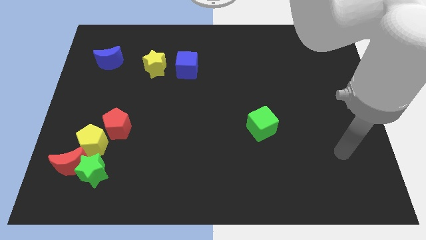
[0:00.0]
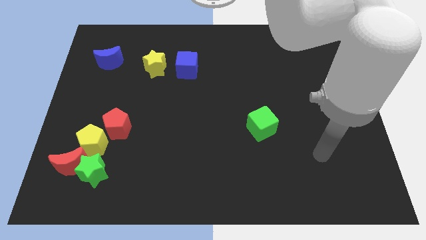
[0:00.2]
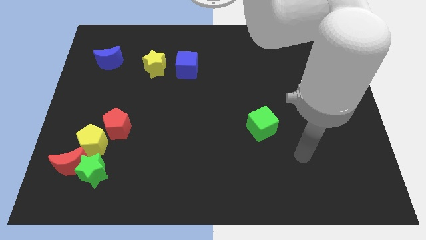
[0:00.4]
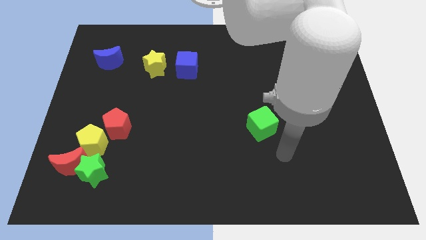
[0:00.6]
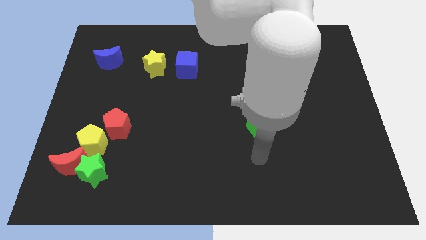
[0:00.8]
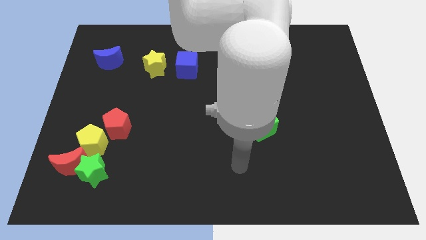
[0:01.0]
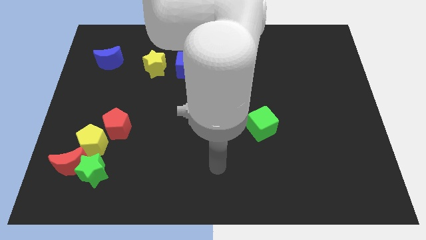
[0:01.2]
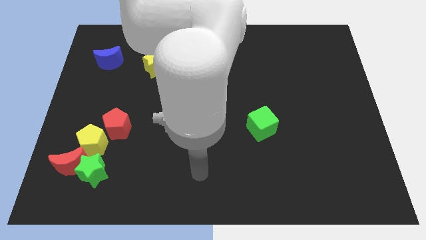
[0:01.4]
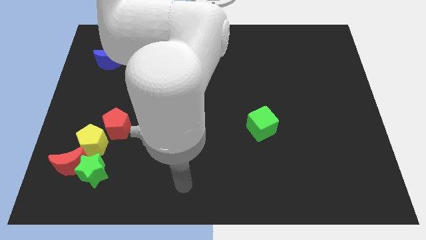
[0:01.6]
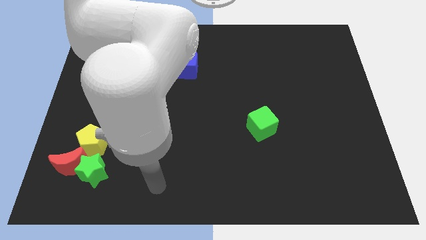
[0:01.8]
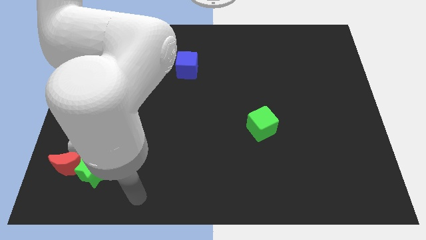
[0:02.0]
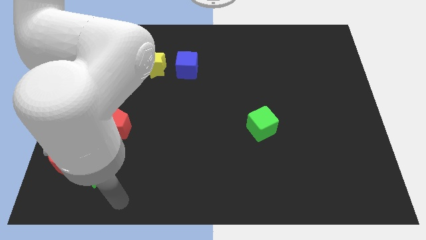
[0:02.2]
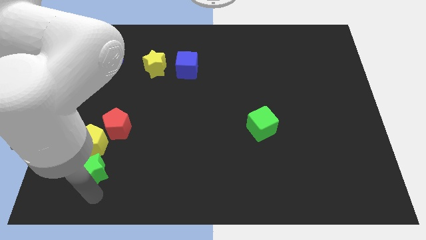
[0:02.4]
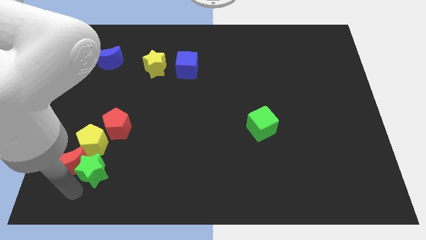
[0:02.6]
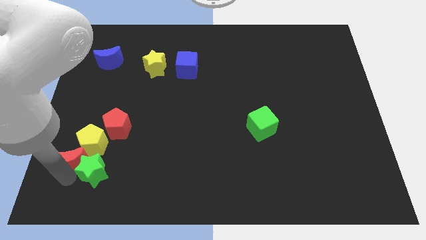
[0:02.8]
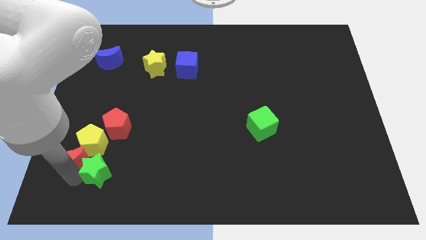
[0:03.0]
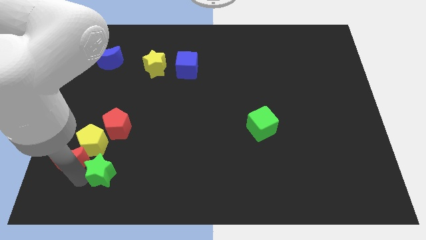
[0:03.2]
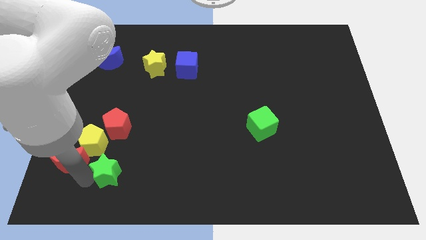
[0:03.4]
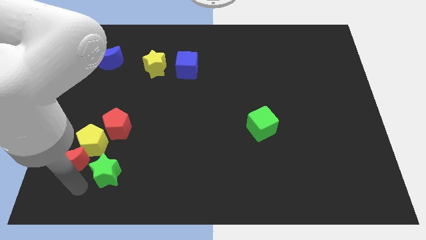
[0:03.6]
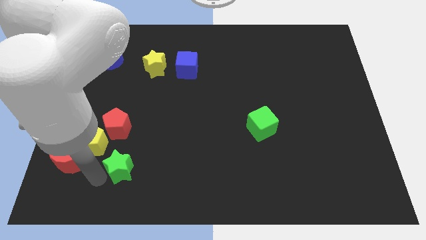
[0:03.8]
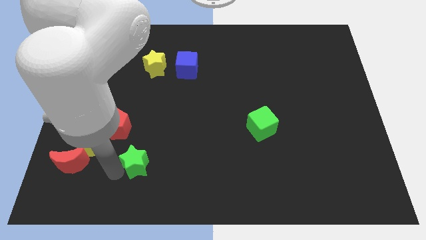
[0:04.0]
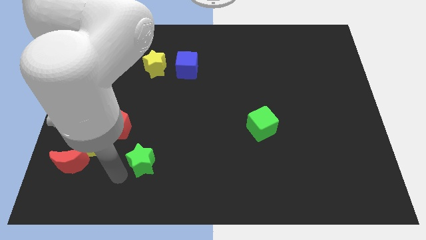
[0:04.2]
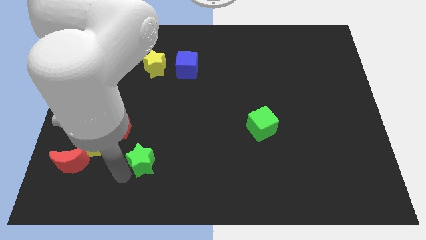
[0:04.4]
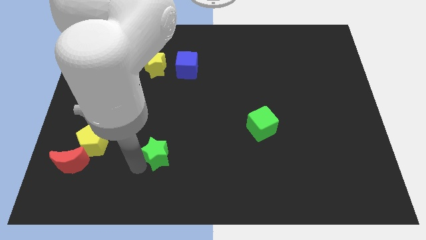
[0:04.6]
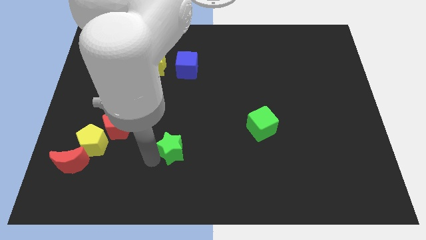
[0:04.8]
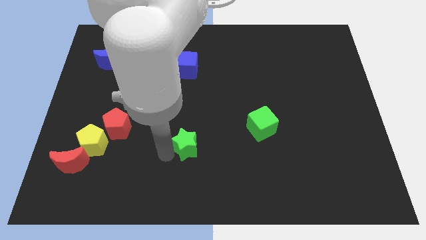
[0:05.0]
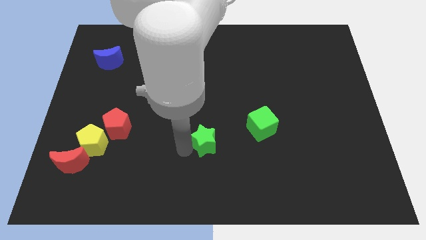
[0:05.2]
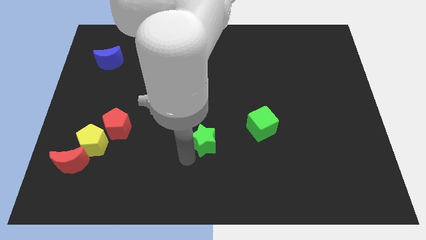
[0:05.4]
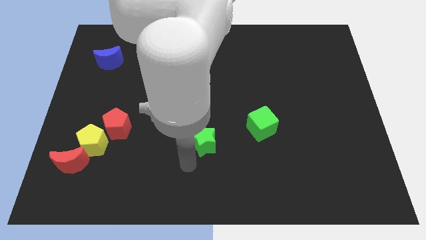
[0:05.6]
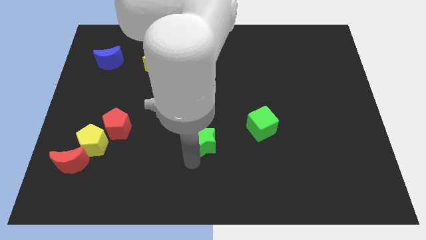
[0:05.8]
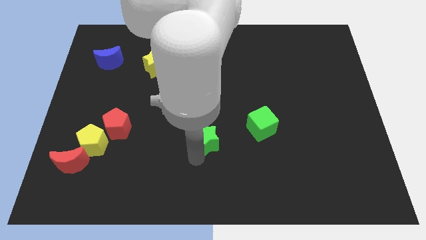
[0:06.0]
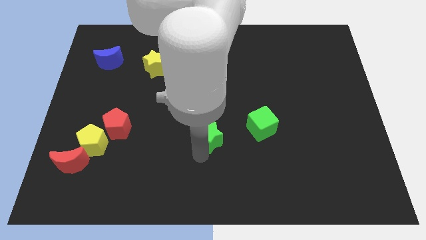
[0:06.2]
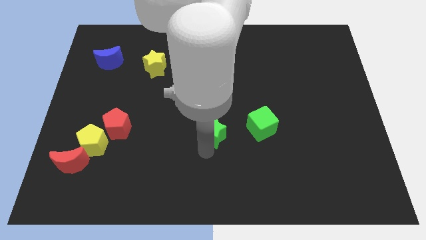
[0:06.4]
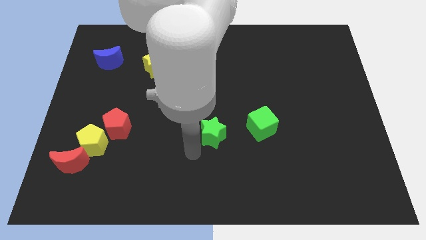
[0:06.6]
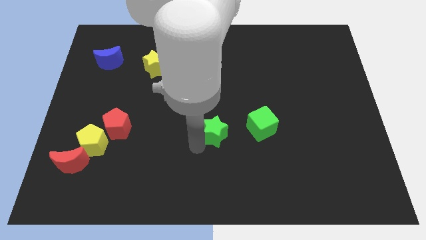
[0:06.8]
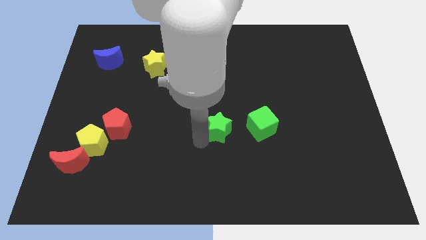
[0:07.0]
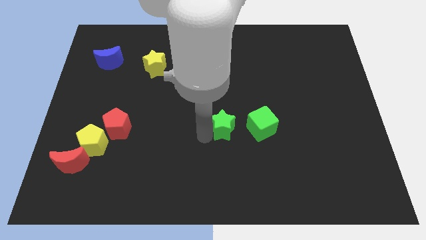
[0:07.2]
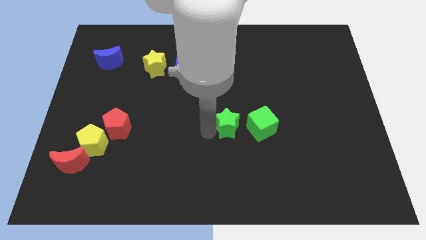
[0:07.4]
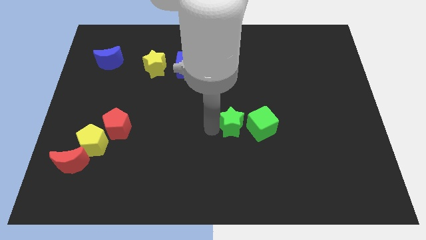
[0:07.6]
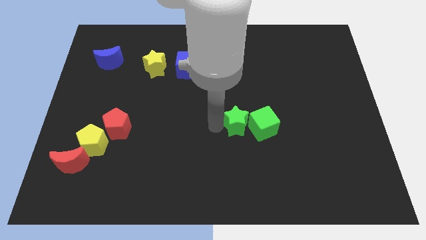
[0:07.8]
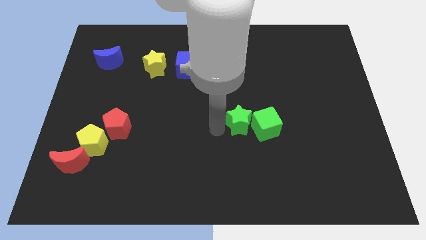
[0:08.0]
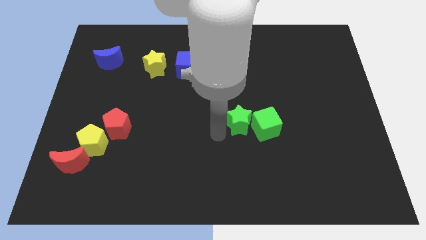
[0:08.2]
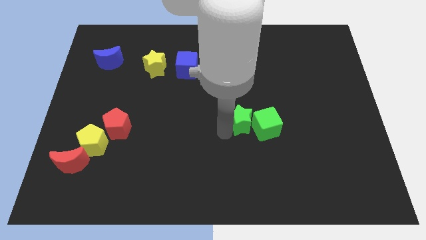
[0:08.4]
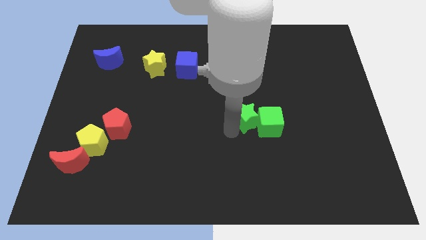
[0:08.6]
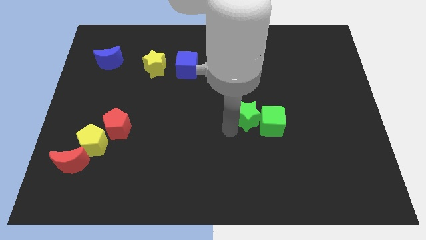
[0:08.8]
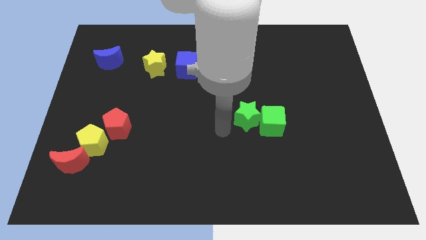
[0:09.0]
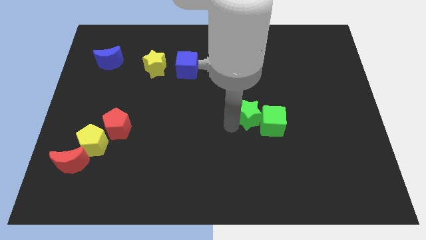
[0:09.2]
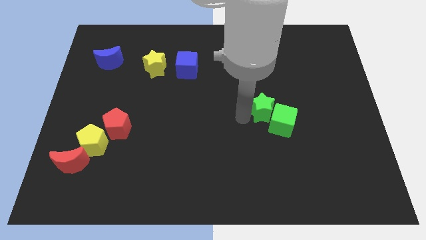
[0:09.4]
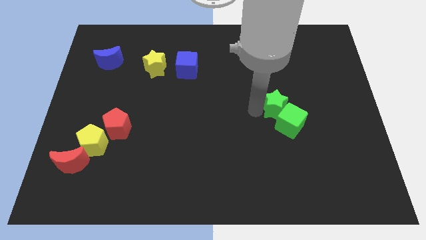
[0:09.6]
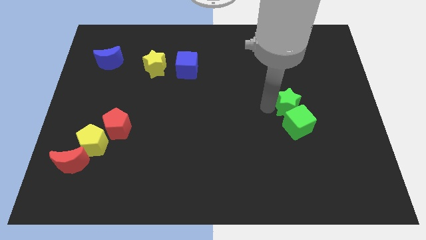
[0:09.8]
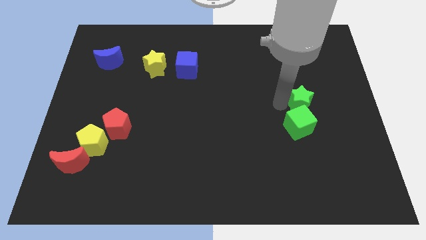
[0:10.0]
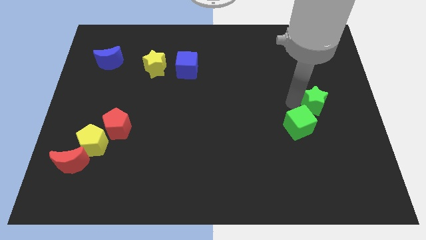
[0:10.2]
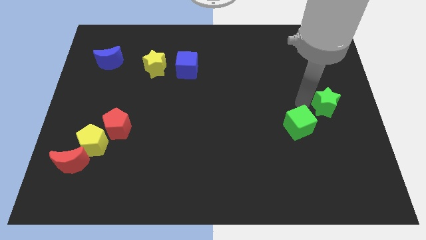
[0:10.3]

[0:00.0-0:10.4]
put the green star to the right side

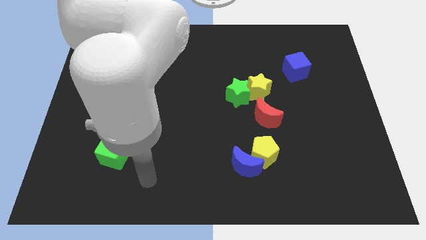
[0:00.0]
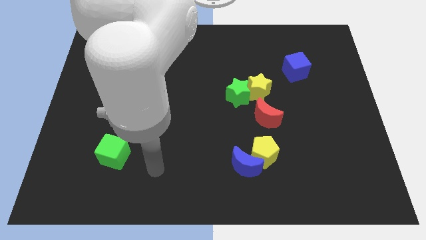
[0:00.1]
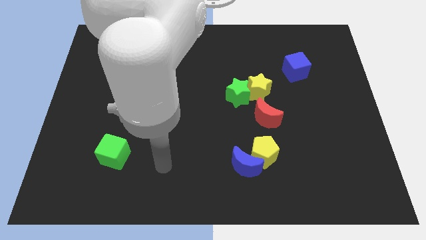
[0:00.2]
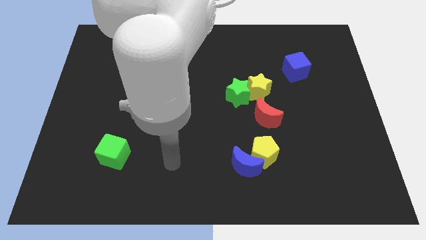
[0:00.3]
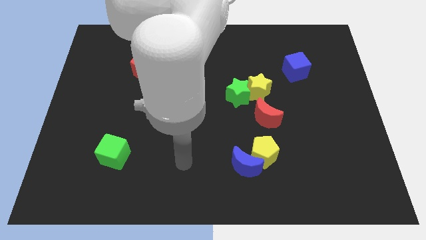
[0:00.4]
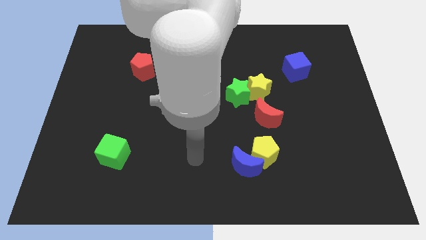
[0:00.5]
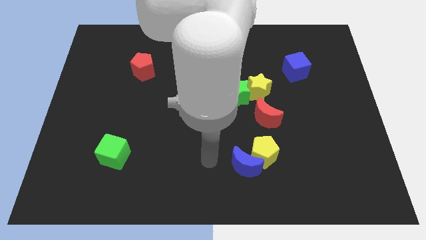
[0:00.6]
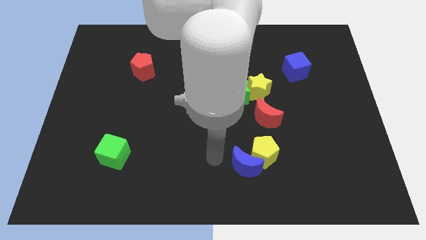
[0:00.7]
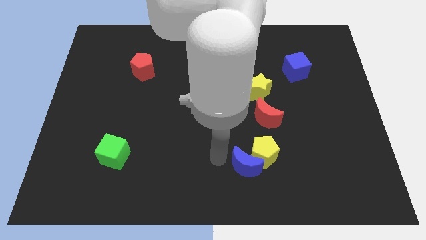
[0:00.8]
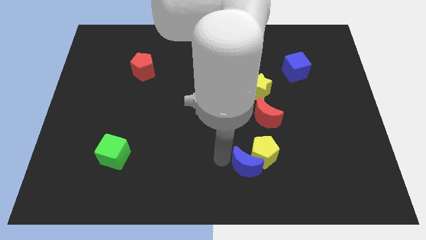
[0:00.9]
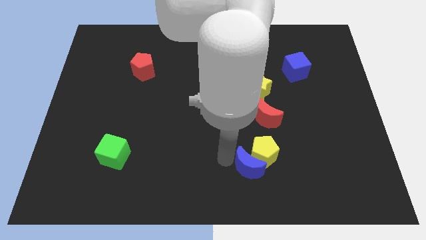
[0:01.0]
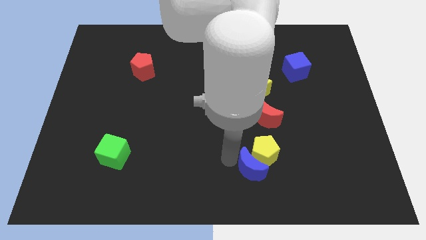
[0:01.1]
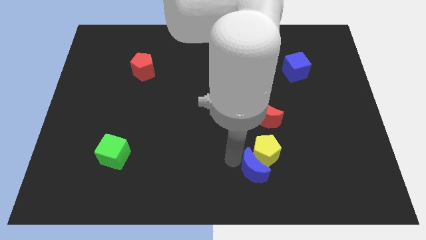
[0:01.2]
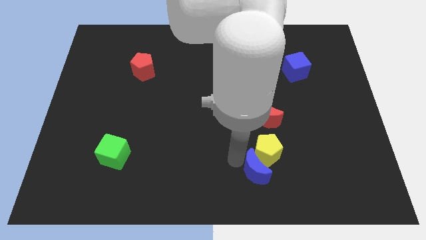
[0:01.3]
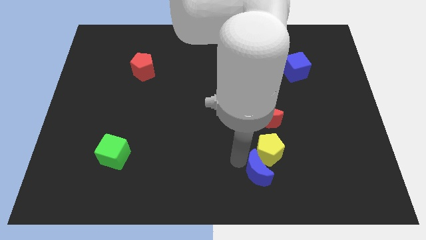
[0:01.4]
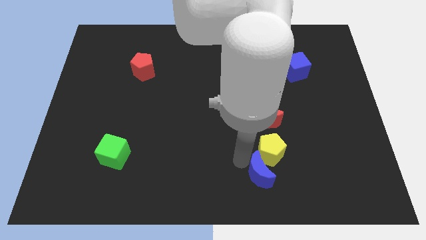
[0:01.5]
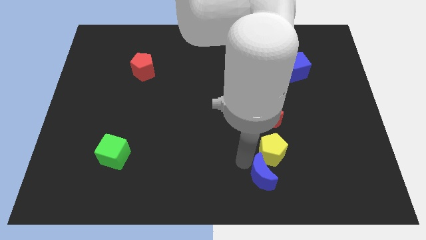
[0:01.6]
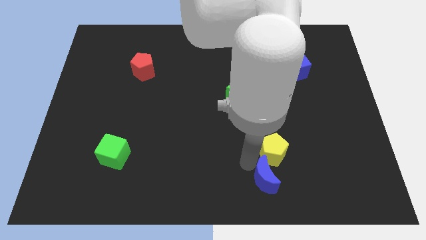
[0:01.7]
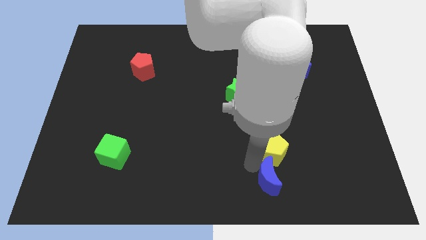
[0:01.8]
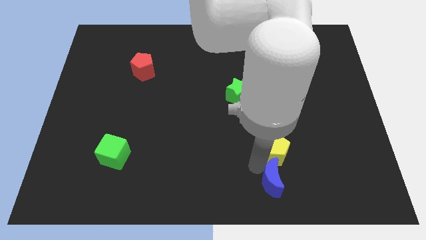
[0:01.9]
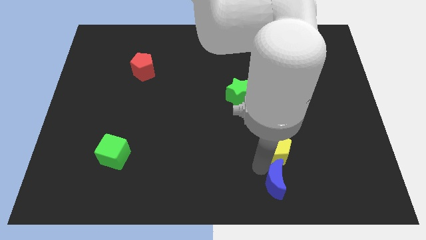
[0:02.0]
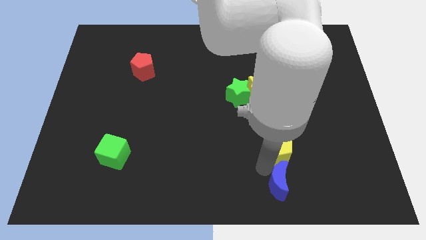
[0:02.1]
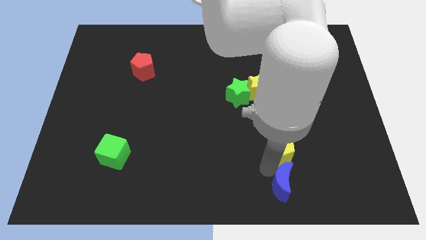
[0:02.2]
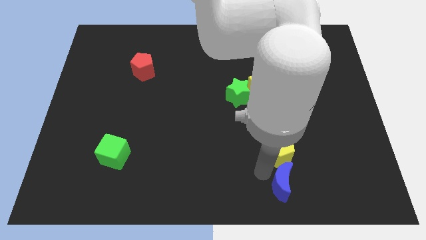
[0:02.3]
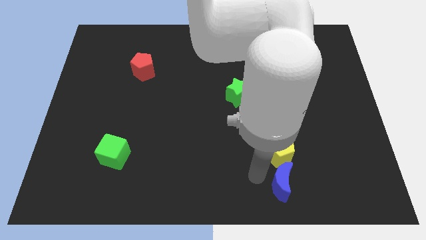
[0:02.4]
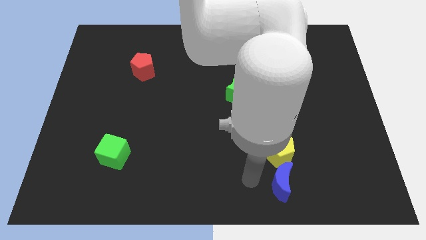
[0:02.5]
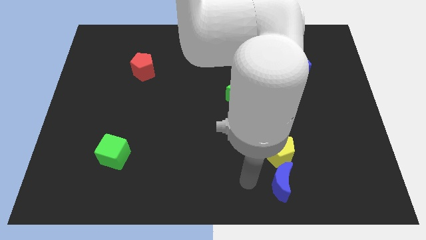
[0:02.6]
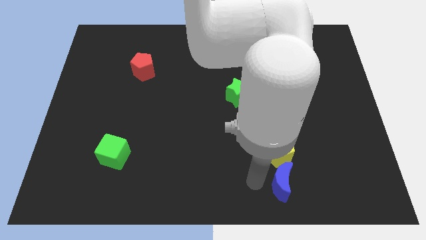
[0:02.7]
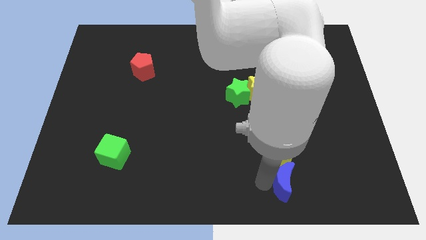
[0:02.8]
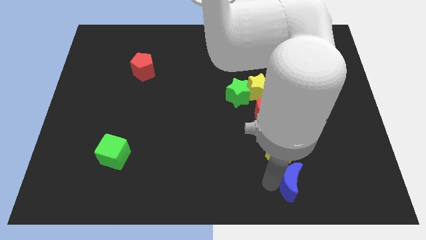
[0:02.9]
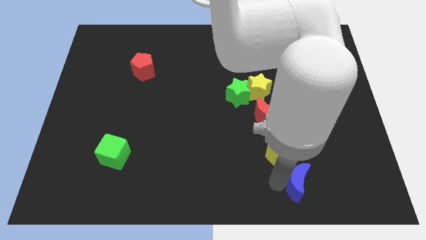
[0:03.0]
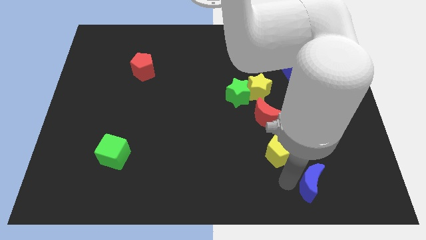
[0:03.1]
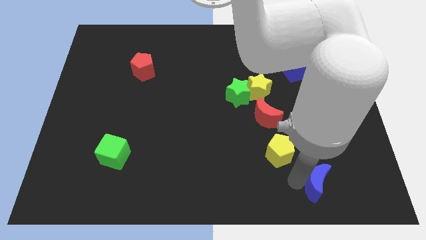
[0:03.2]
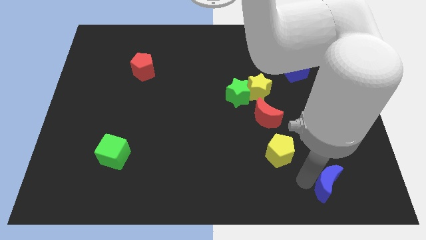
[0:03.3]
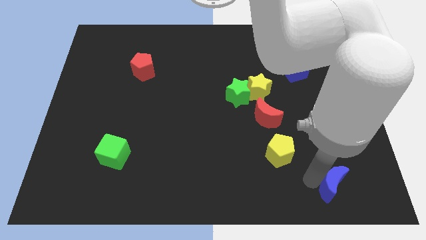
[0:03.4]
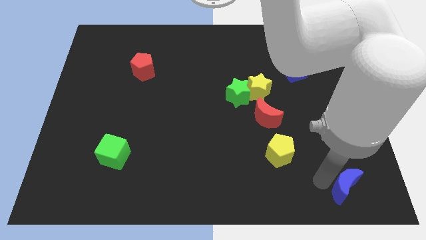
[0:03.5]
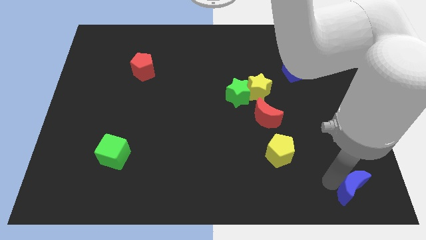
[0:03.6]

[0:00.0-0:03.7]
put the blue moon to the lower right corner
